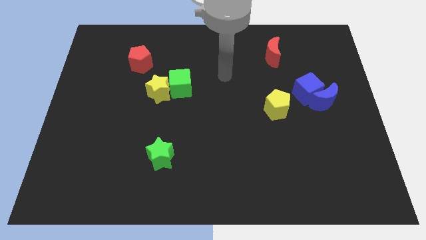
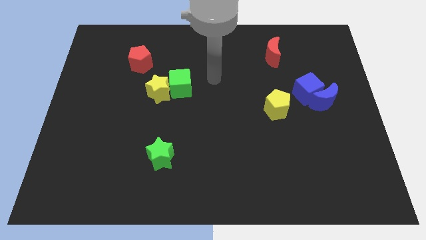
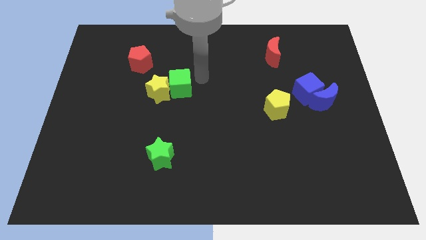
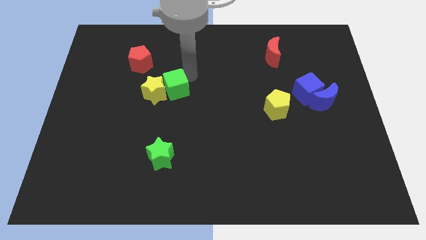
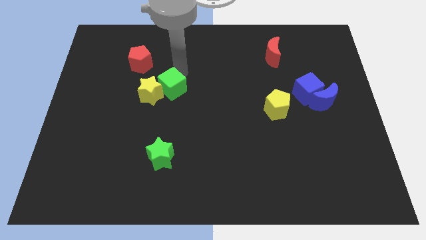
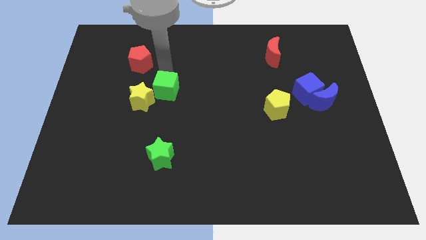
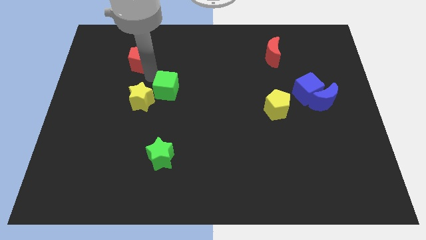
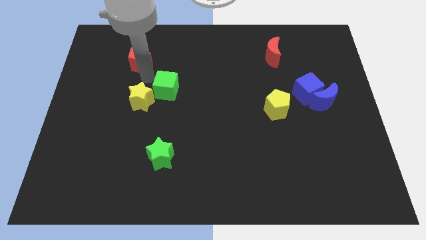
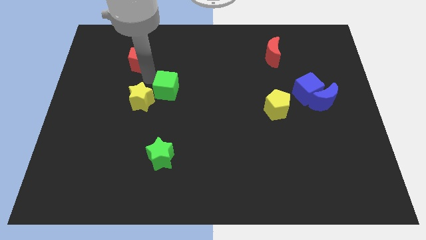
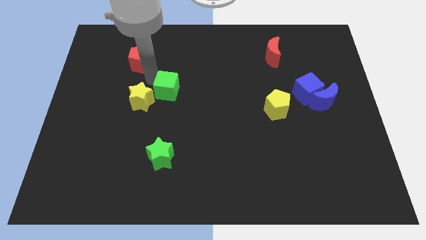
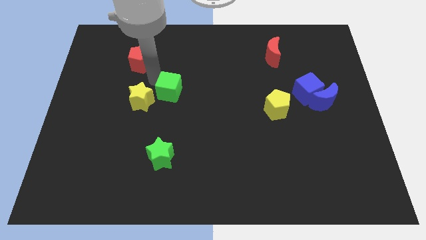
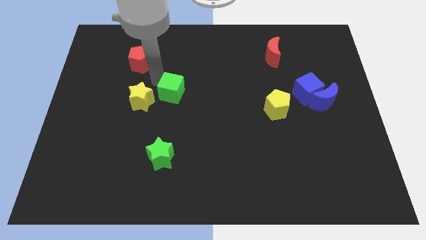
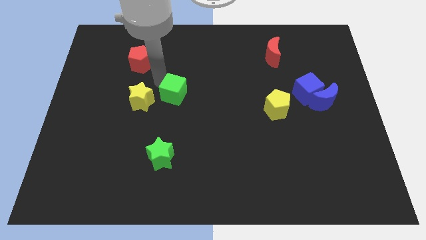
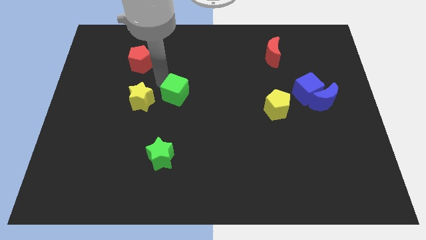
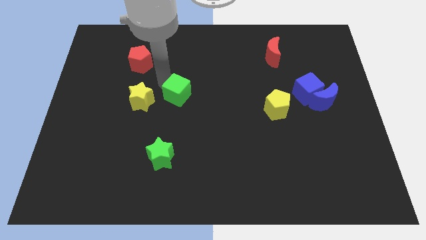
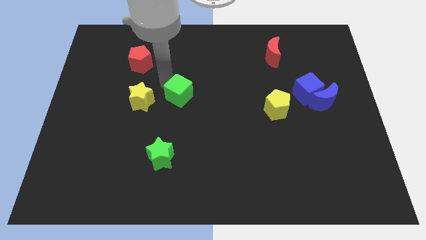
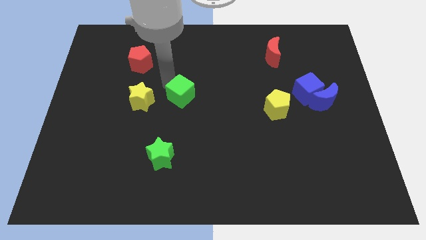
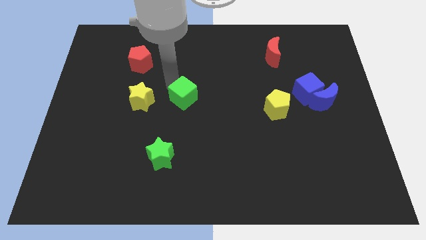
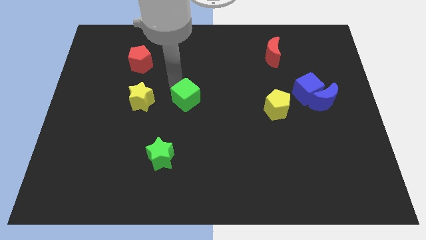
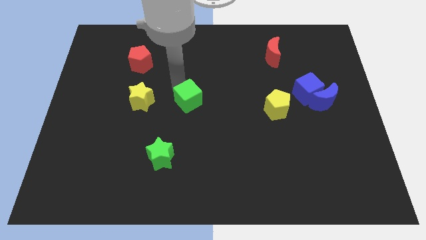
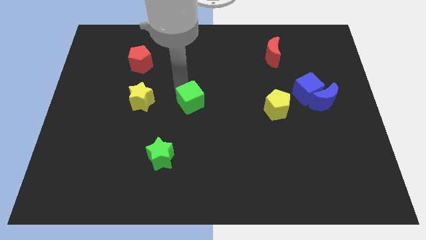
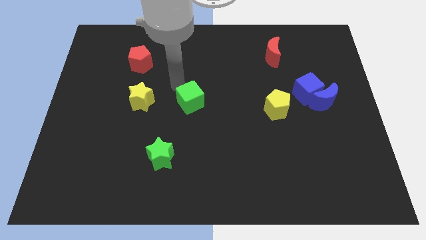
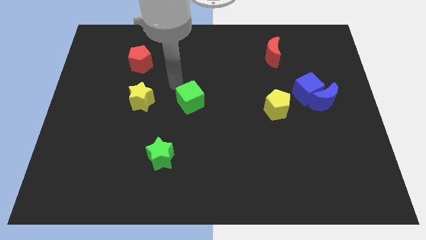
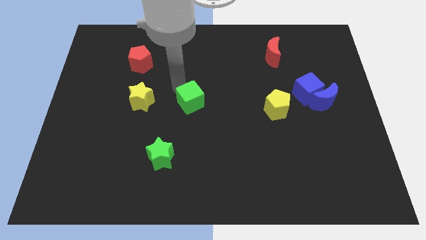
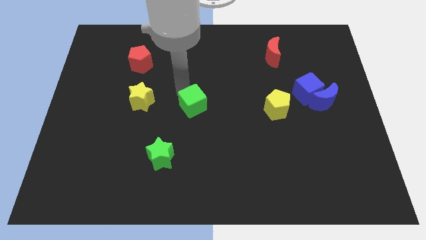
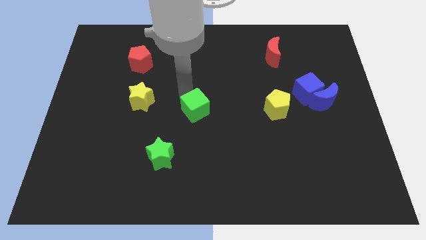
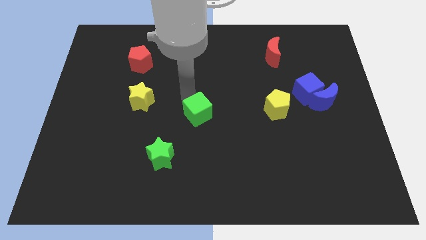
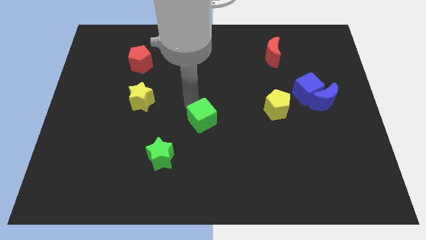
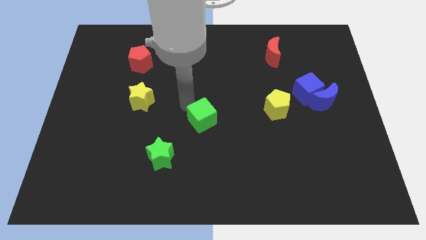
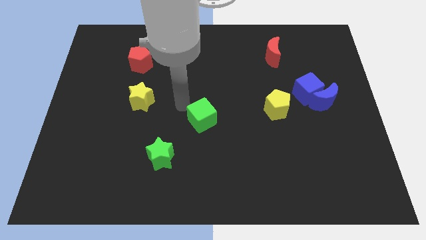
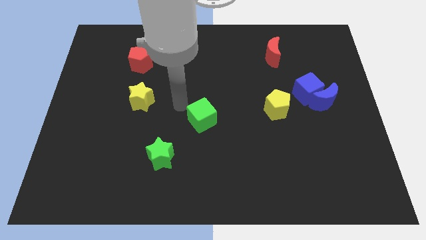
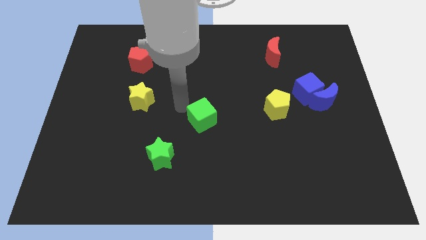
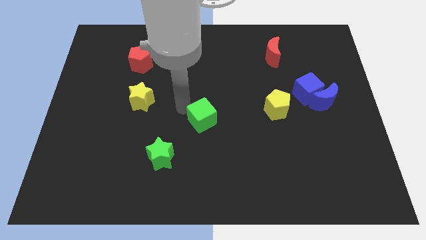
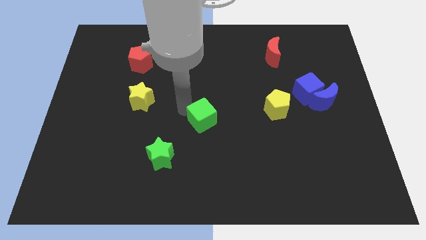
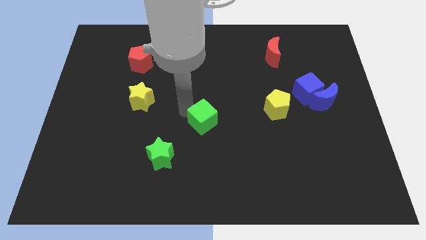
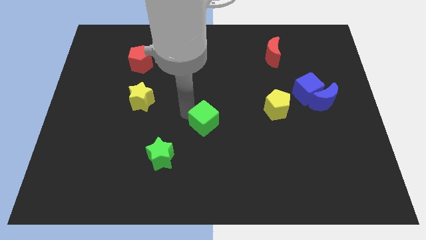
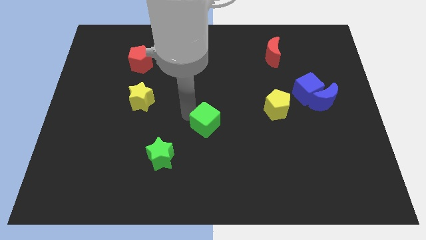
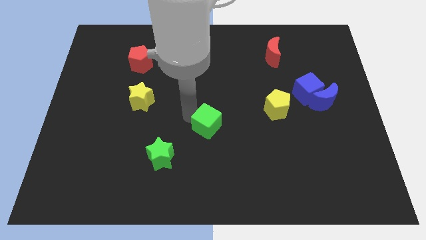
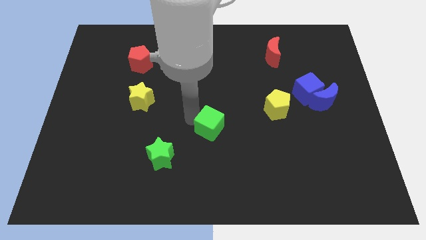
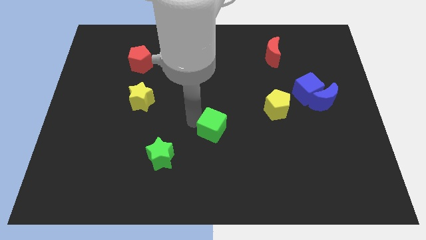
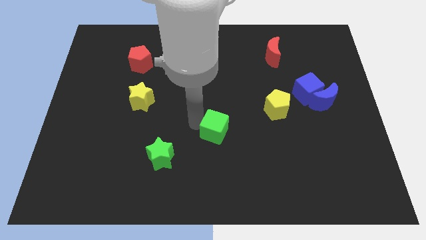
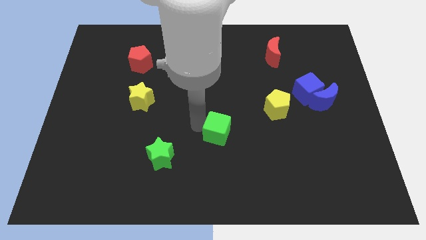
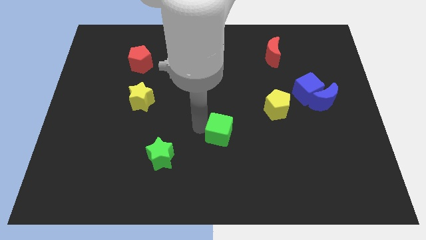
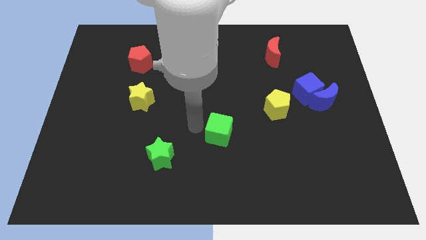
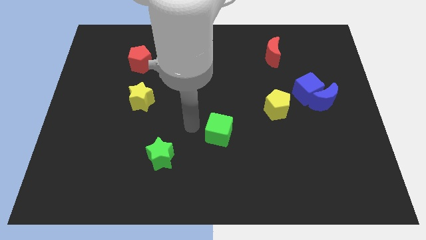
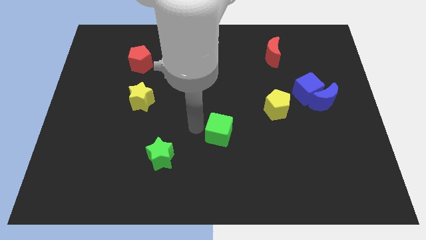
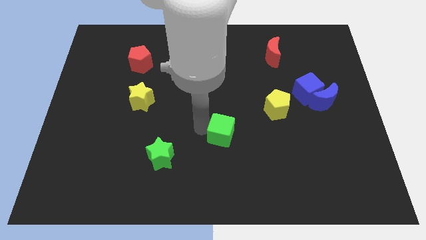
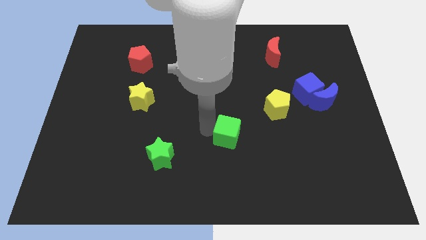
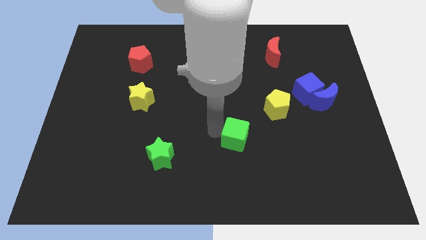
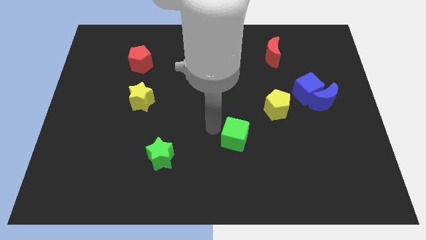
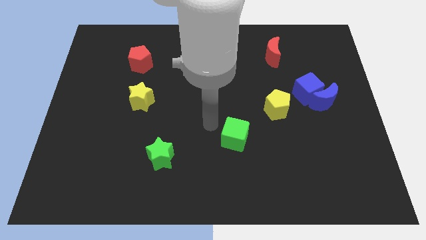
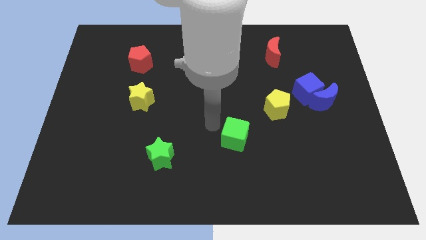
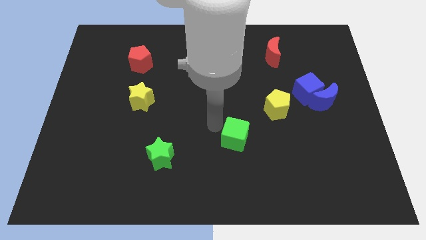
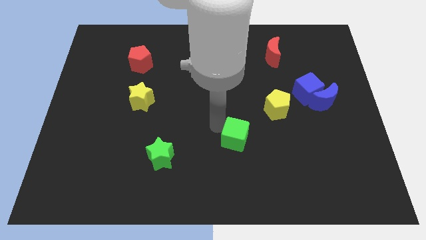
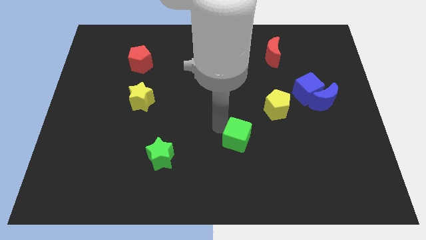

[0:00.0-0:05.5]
move the green cube down and then to the right

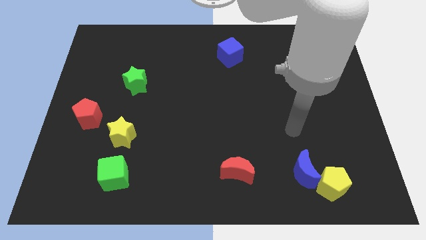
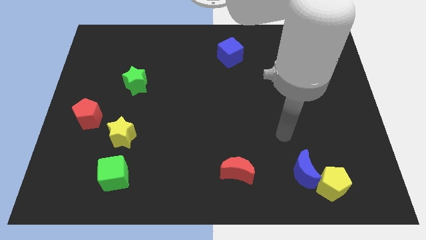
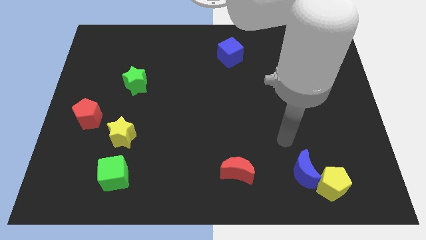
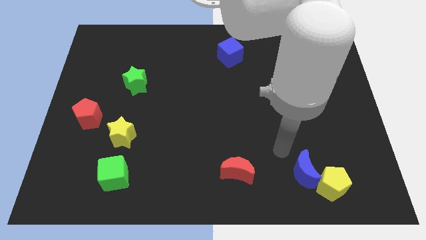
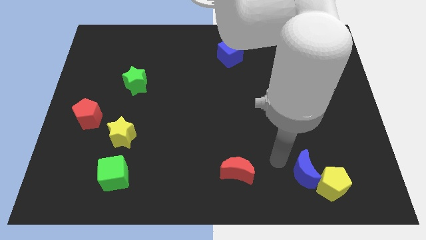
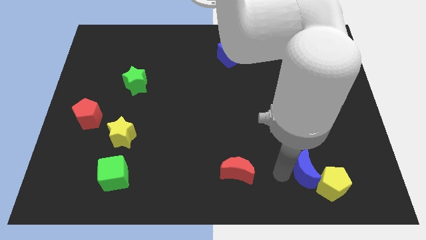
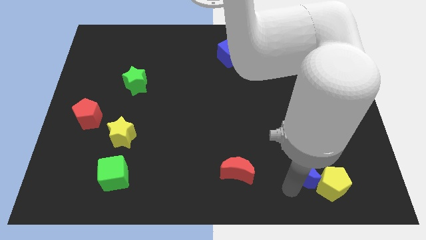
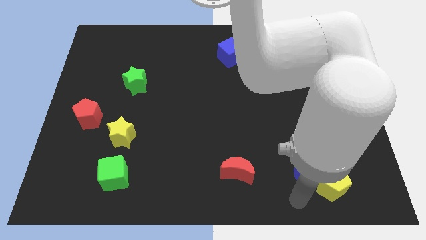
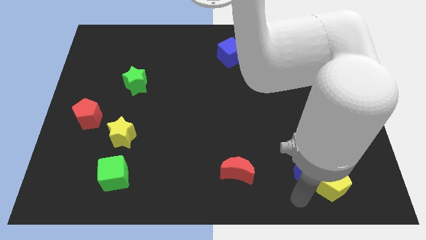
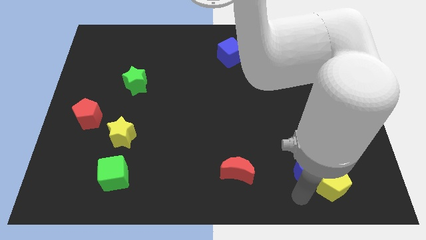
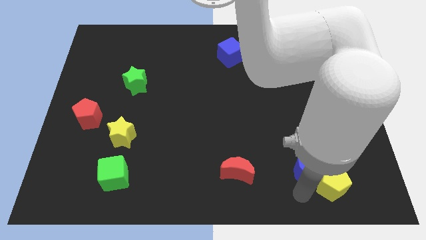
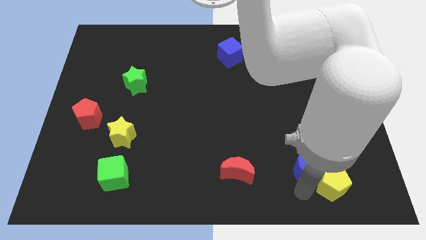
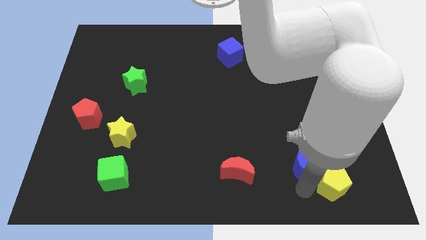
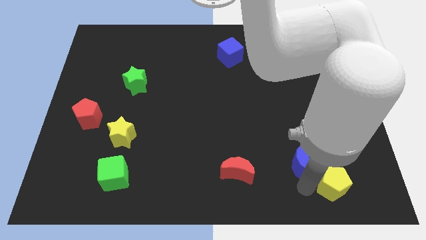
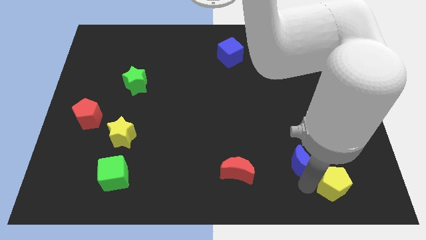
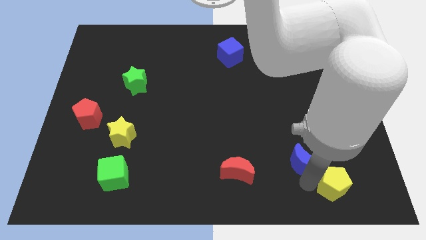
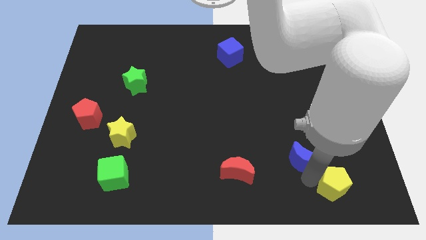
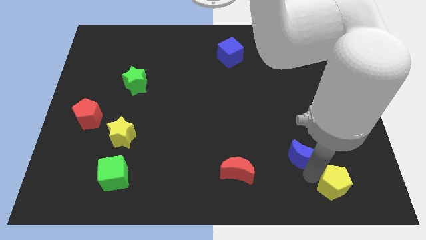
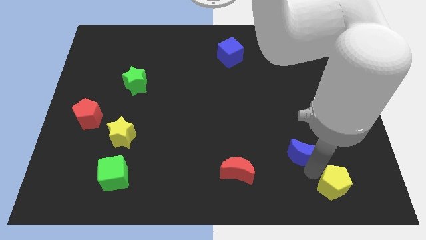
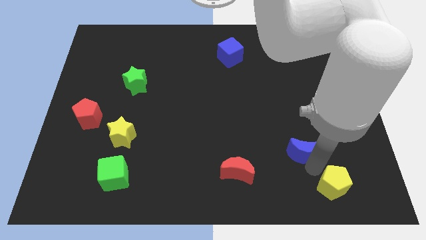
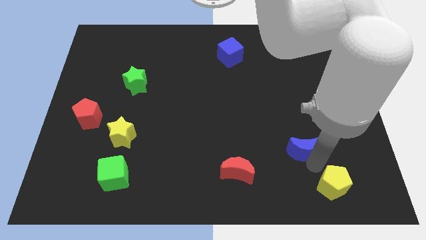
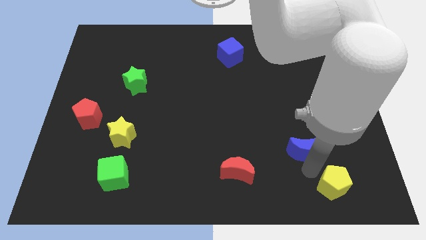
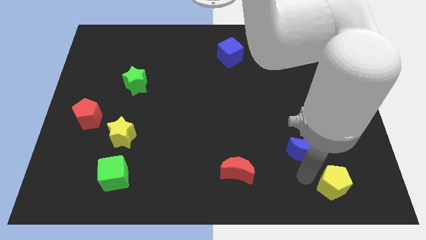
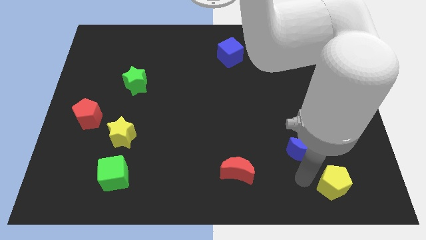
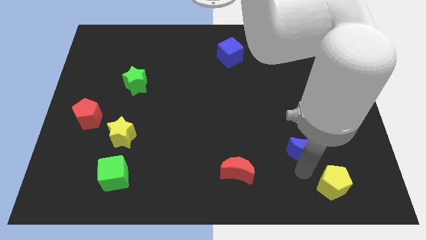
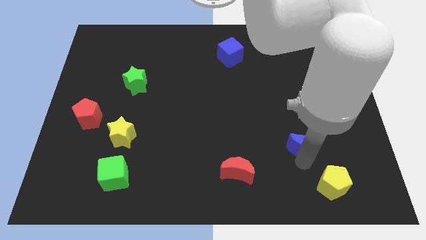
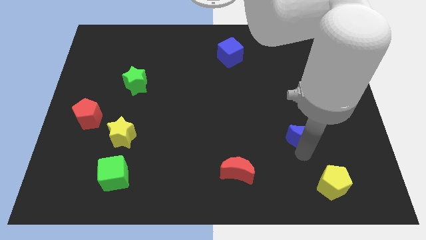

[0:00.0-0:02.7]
slightly push the blue moon up
